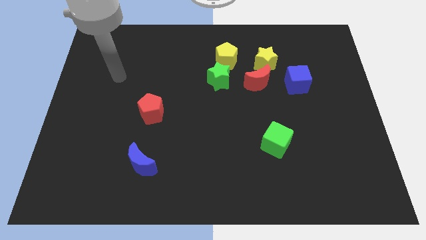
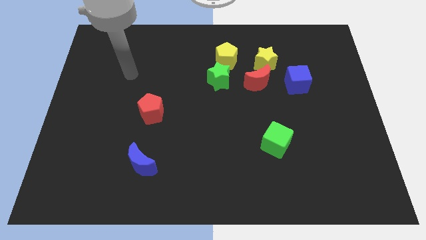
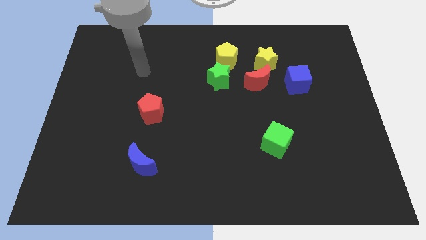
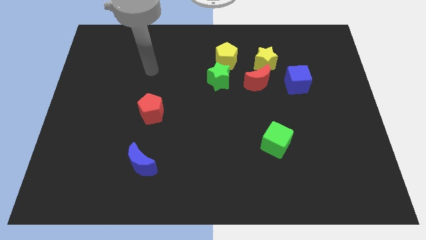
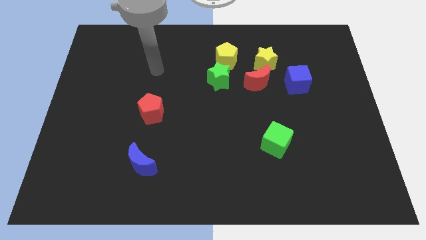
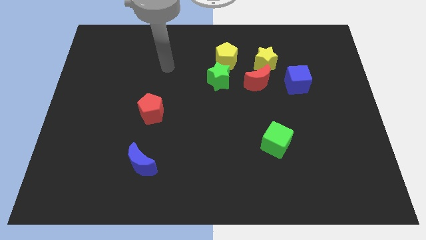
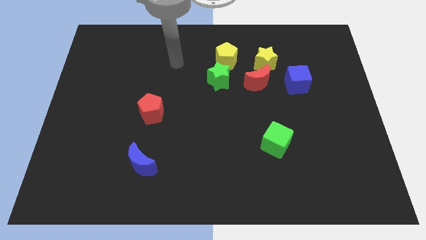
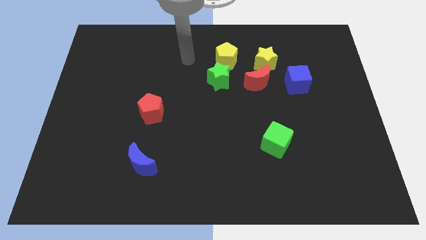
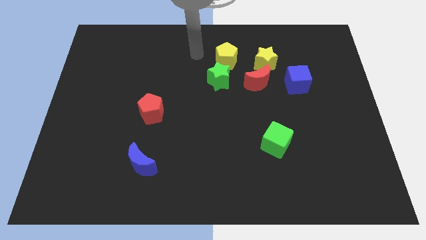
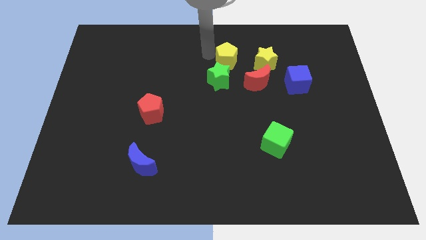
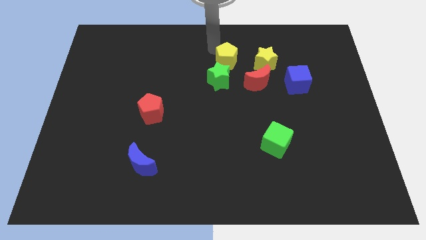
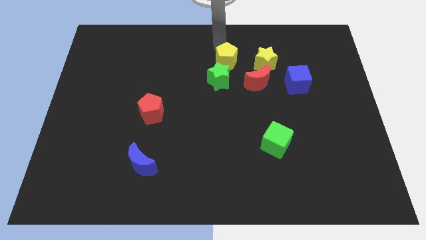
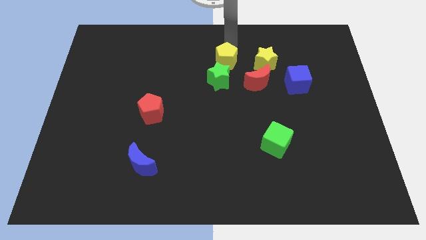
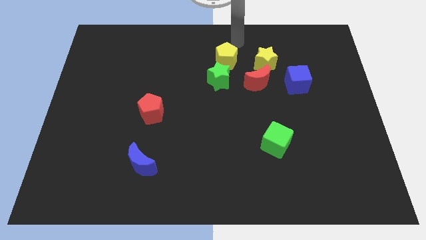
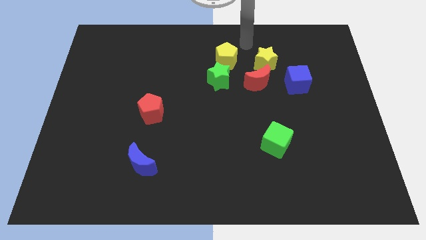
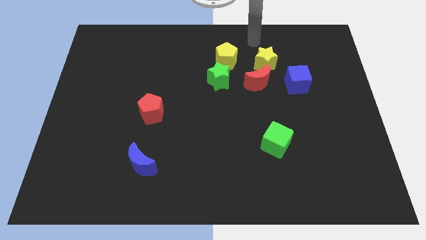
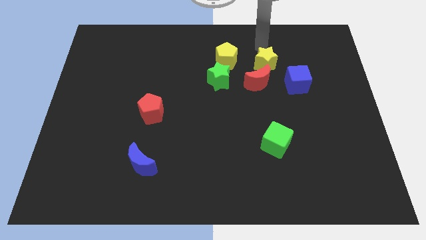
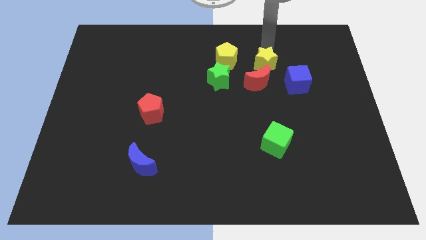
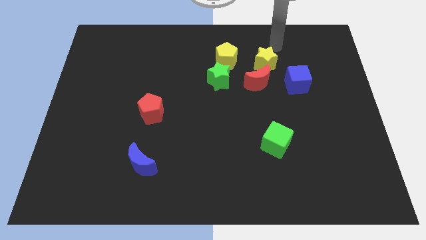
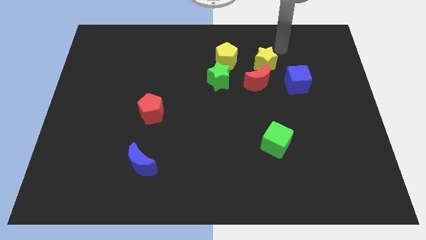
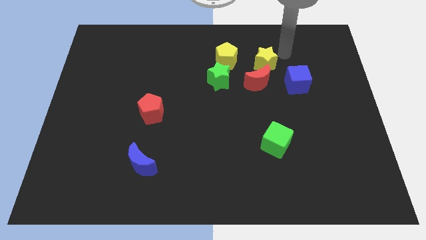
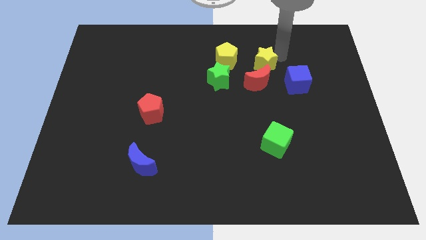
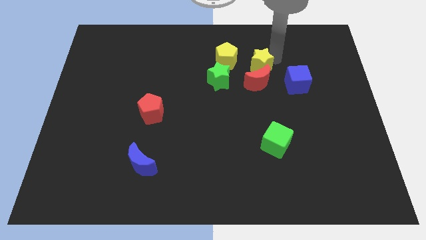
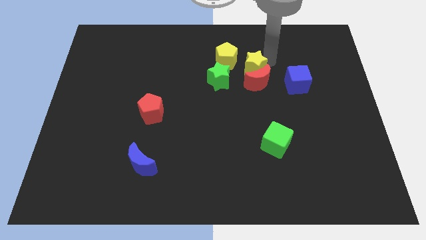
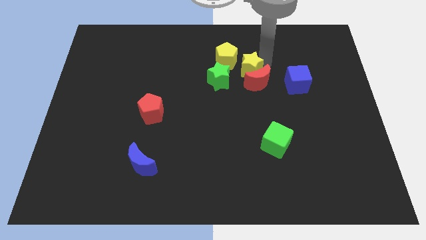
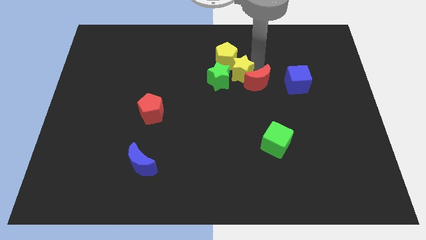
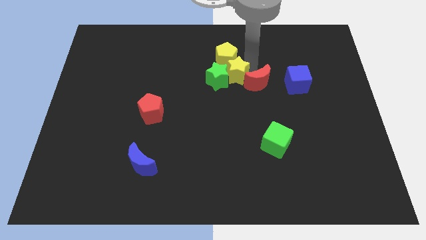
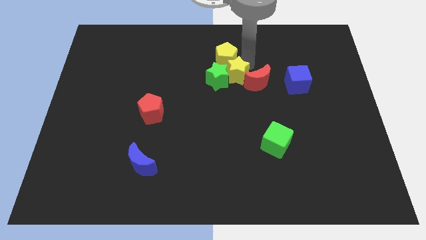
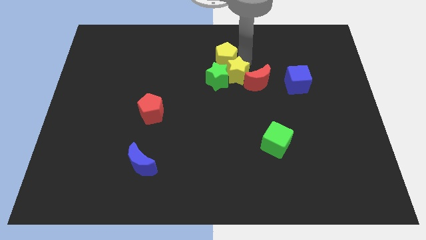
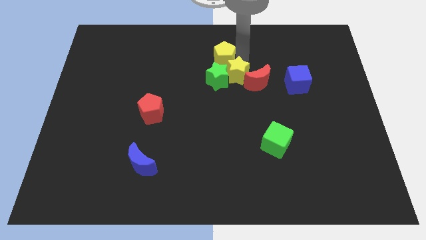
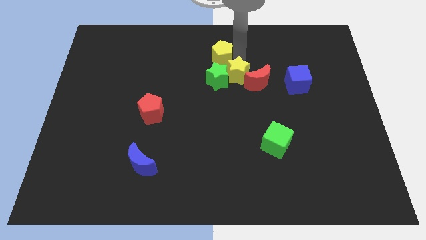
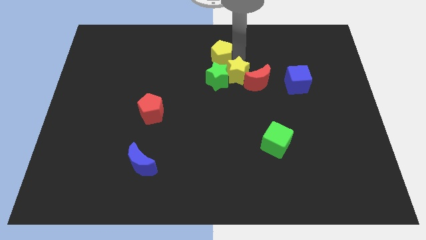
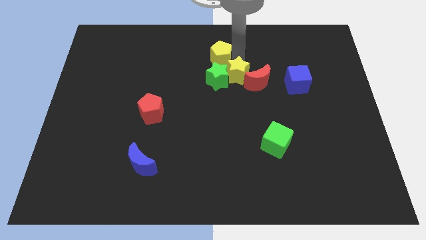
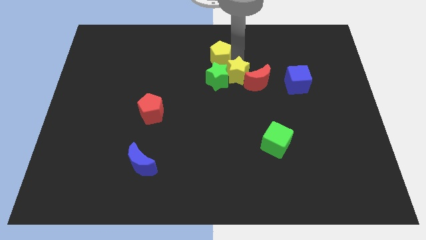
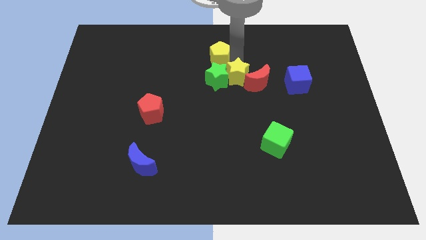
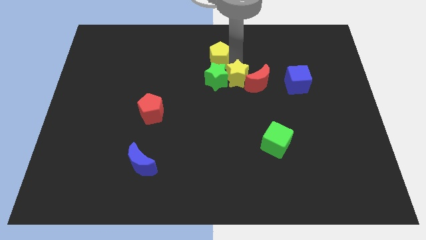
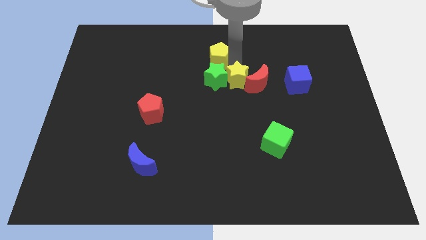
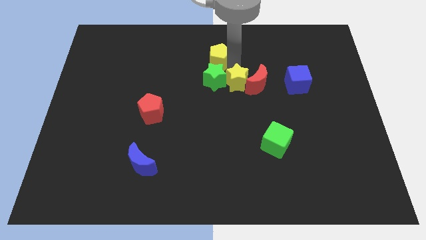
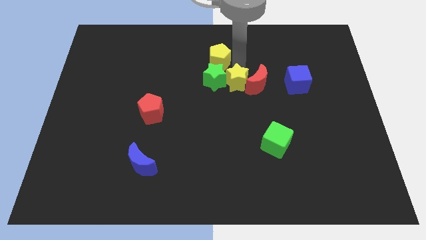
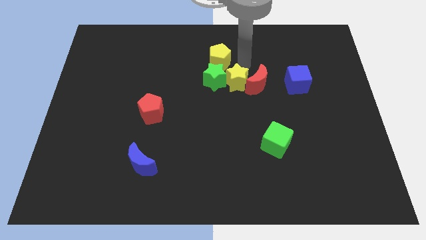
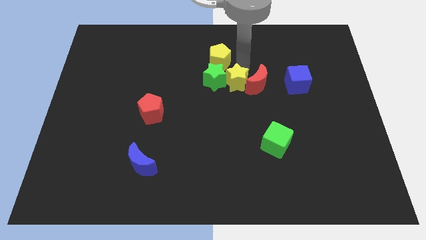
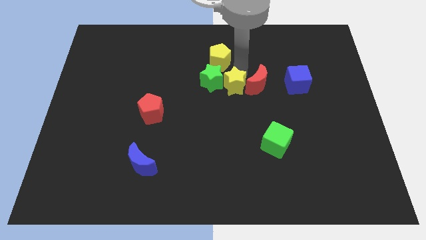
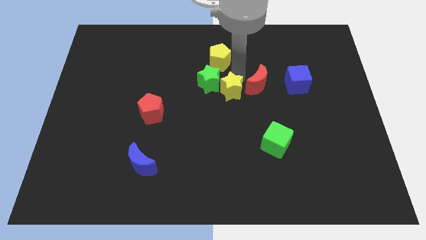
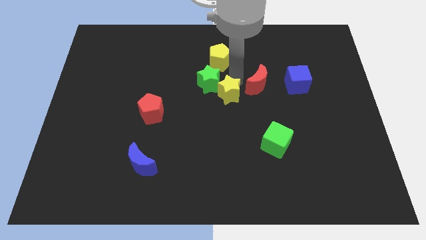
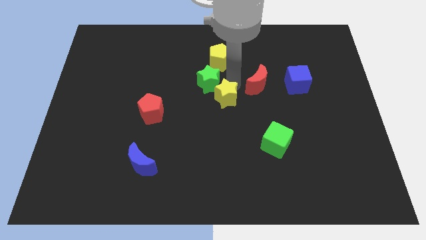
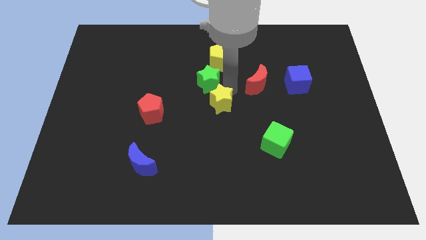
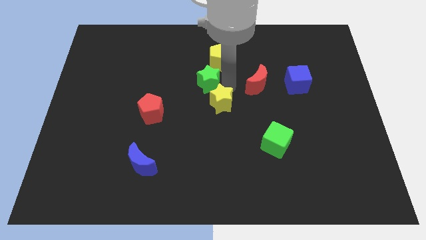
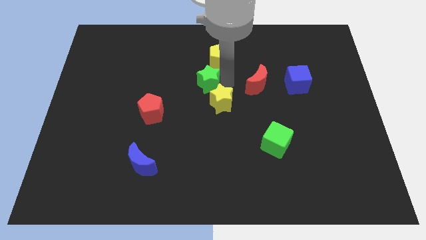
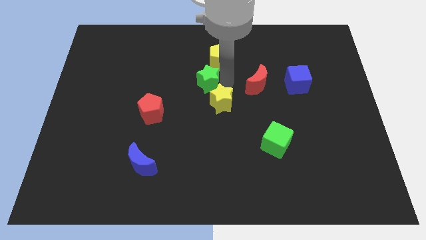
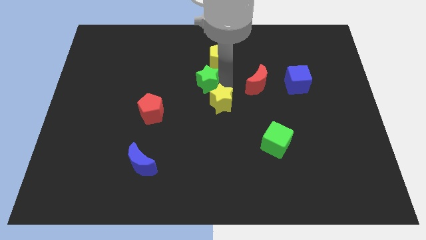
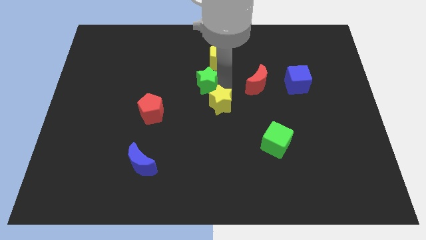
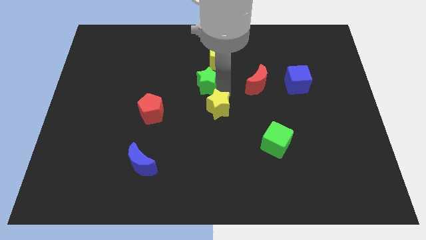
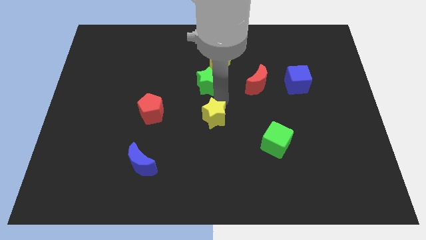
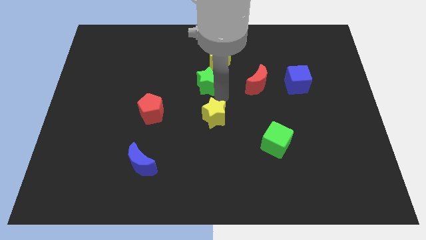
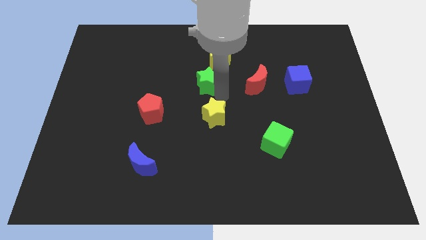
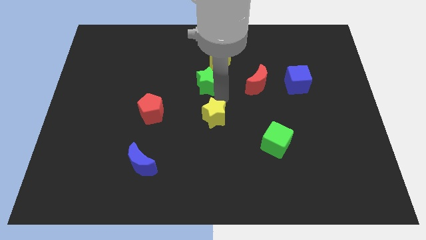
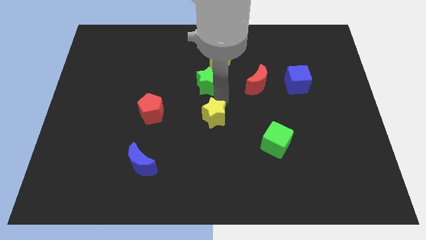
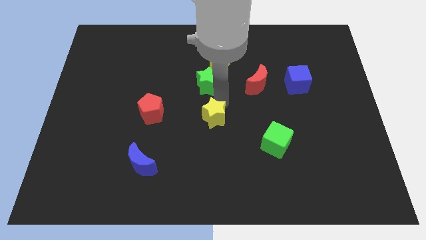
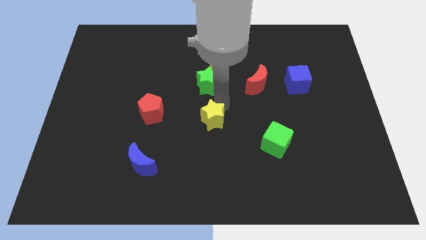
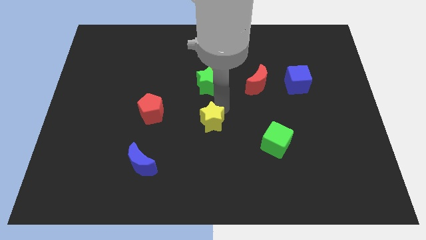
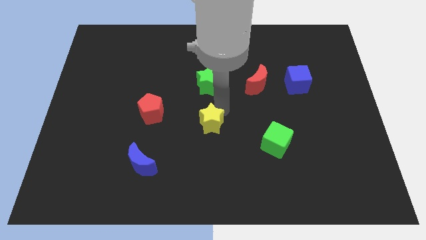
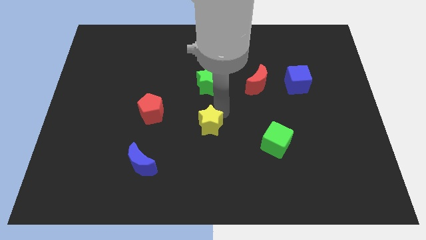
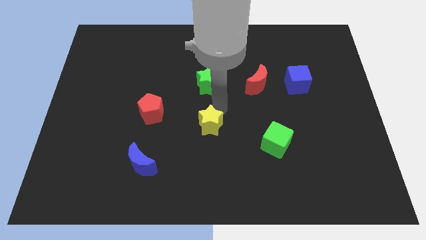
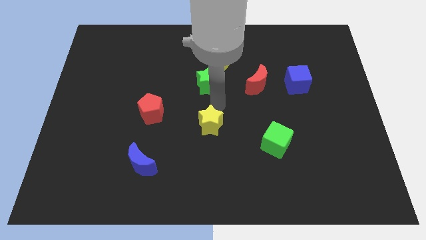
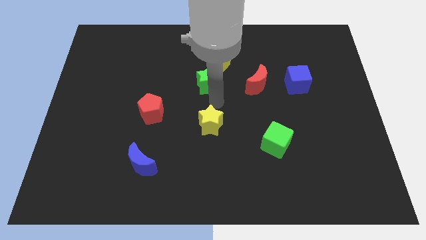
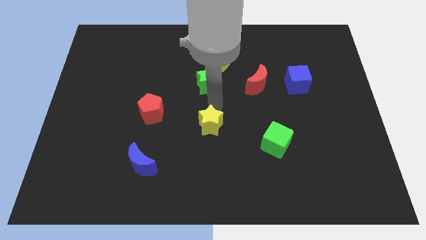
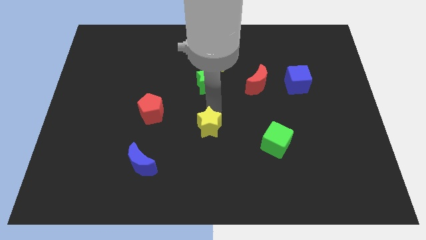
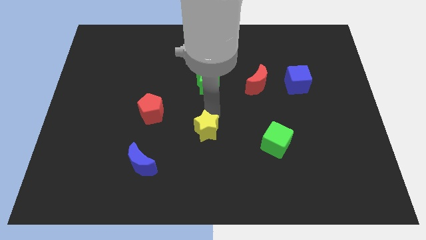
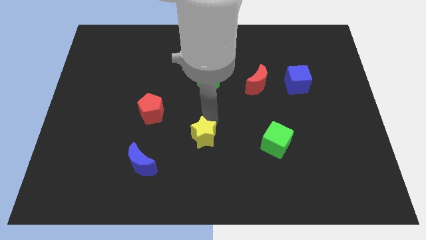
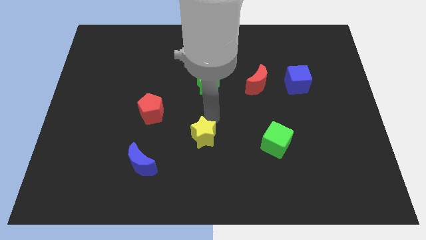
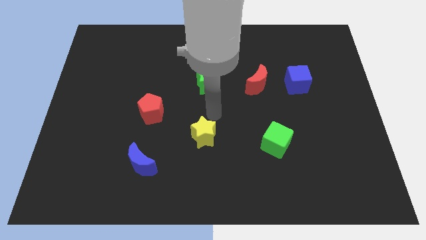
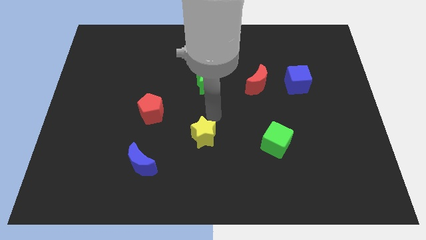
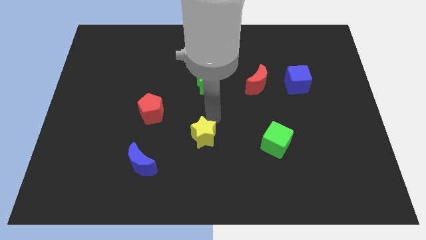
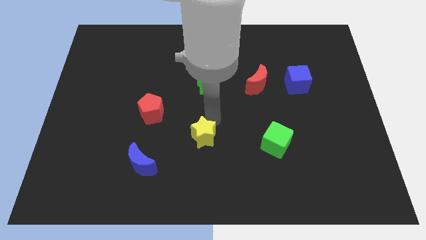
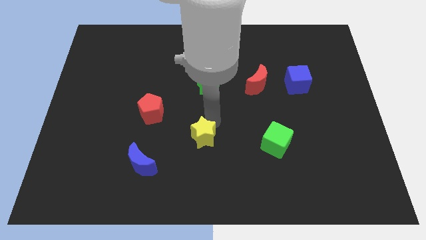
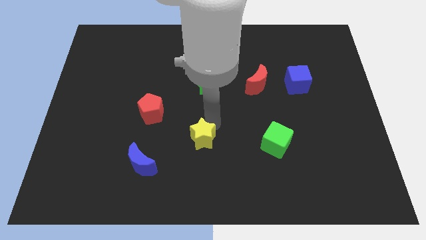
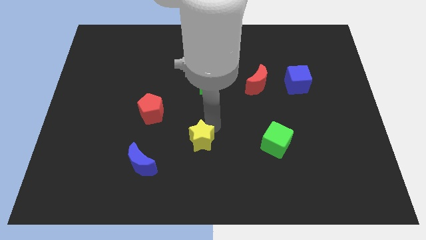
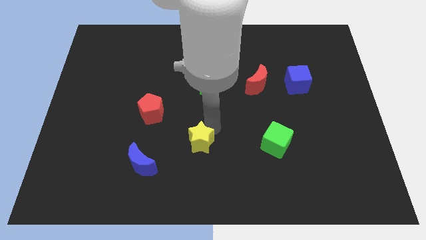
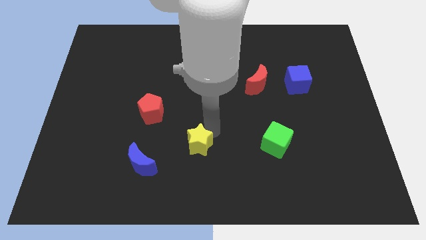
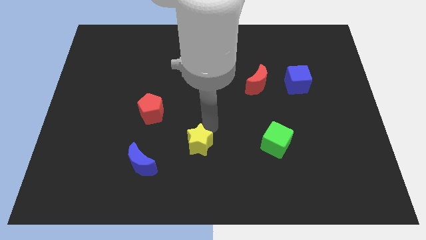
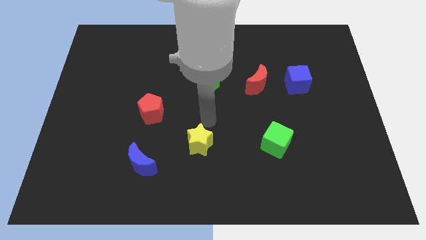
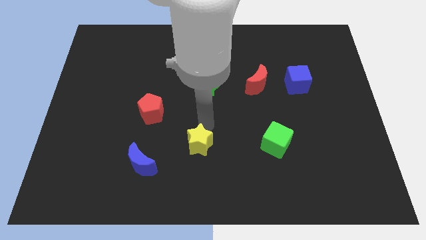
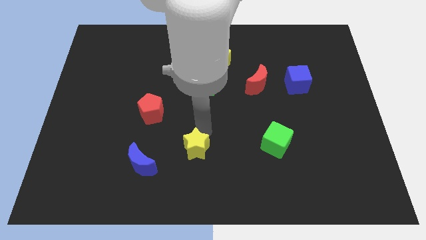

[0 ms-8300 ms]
move the yellow star to the right side of the blue moon
